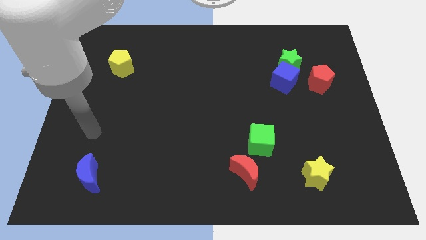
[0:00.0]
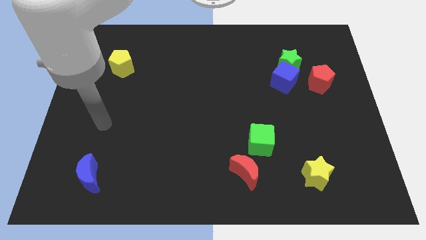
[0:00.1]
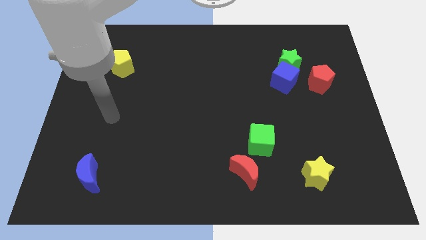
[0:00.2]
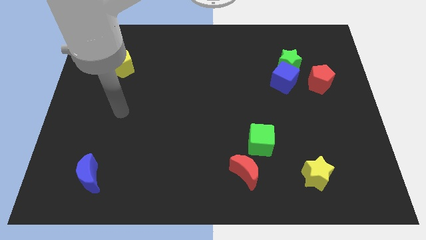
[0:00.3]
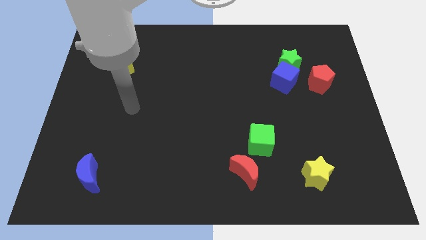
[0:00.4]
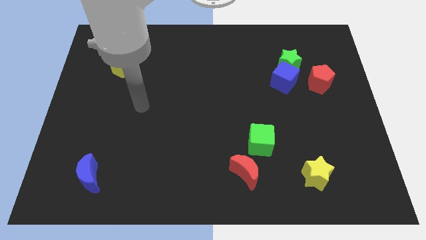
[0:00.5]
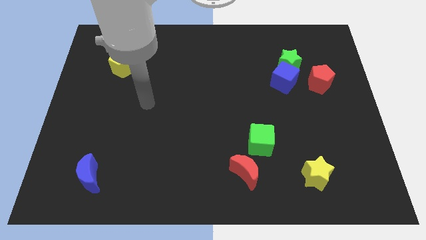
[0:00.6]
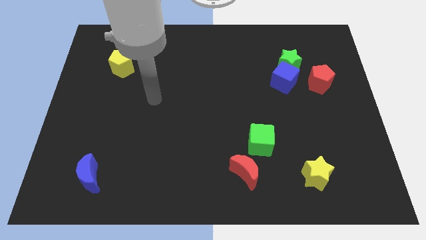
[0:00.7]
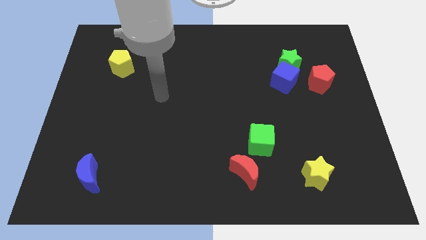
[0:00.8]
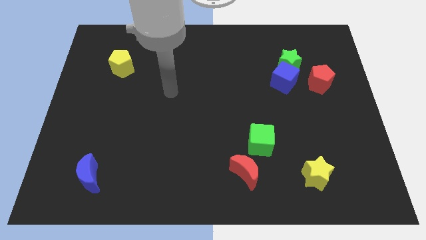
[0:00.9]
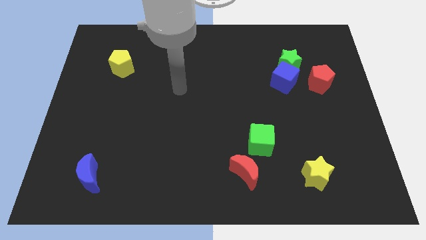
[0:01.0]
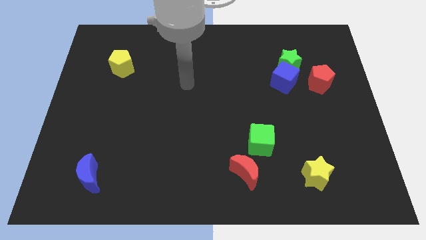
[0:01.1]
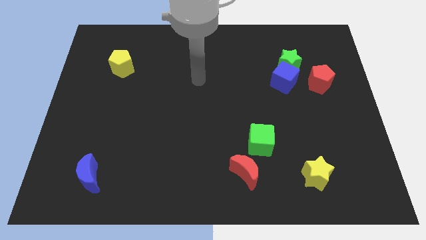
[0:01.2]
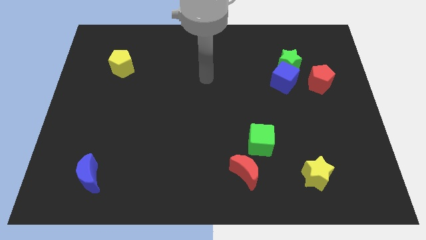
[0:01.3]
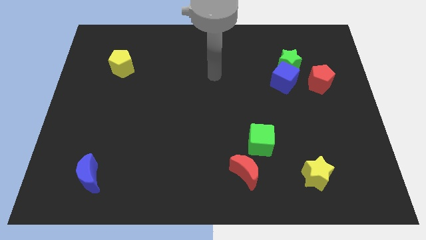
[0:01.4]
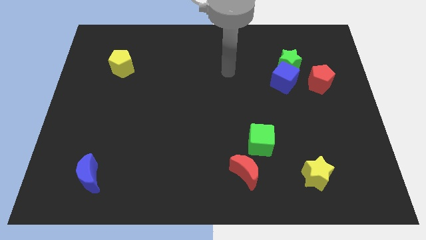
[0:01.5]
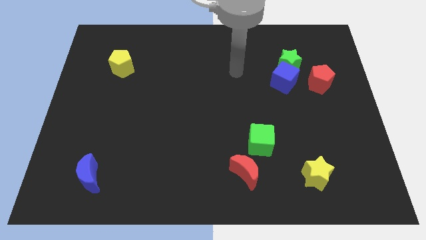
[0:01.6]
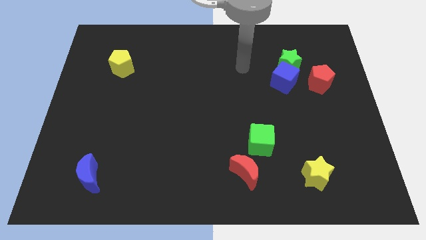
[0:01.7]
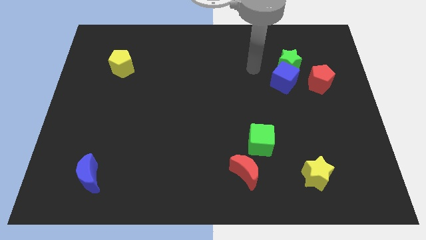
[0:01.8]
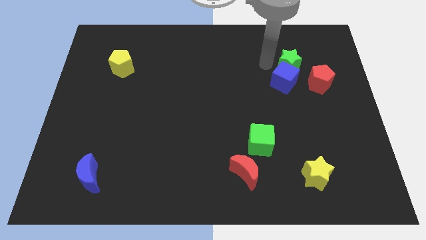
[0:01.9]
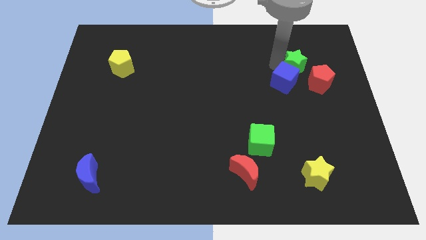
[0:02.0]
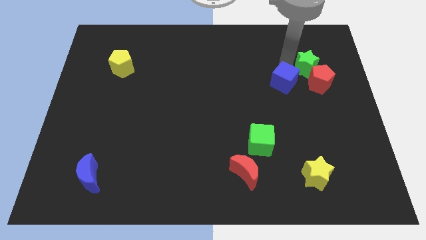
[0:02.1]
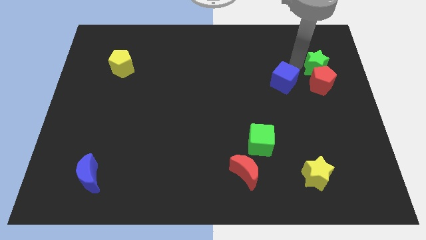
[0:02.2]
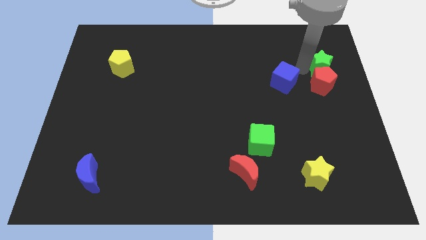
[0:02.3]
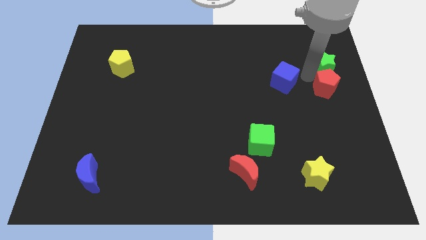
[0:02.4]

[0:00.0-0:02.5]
move the blue cube away from the green star and red pentagon

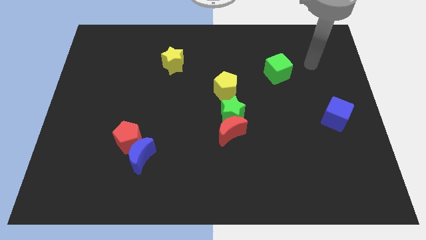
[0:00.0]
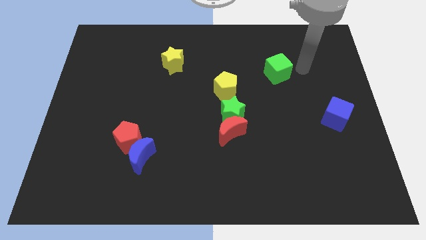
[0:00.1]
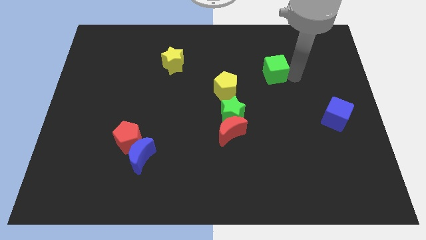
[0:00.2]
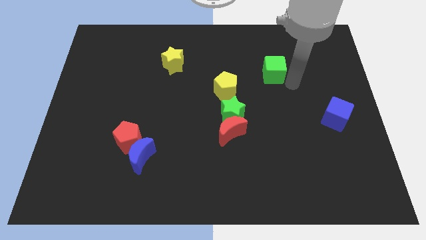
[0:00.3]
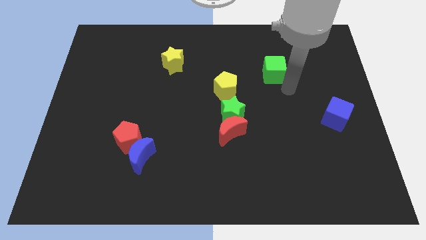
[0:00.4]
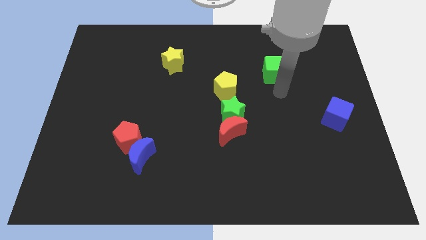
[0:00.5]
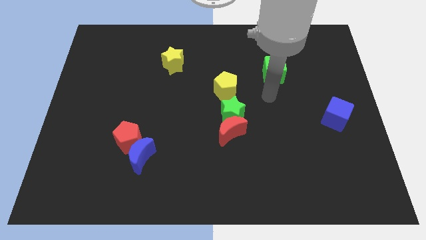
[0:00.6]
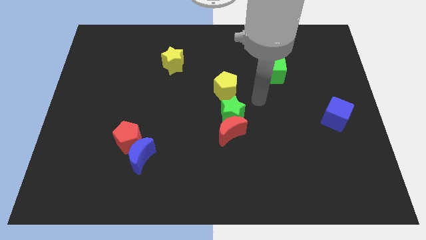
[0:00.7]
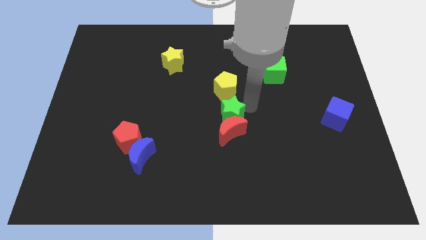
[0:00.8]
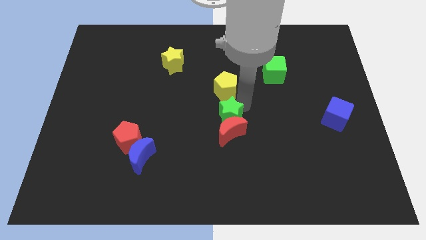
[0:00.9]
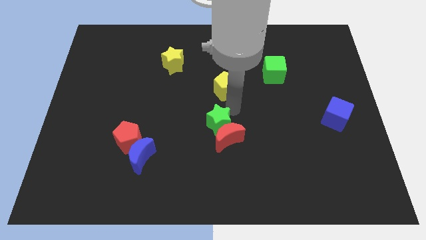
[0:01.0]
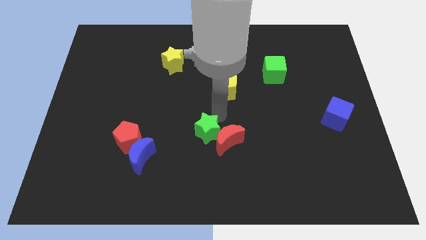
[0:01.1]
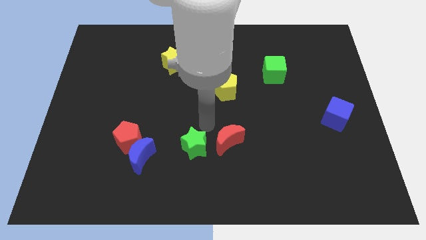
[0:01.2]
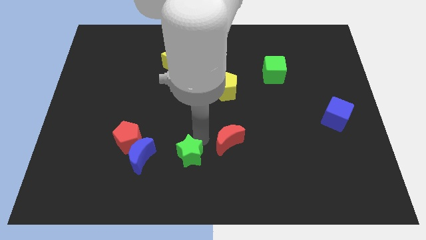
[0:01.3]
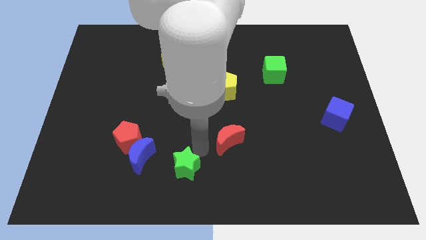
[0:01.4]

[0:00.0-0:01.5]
pull the red moon apart from the green star

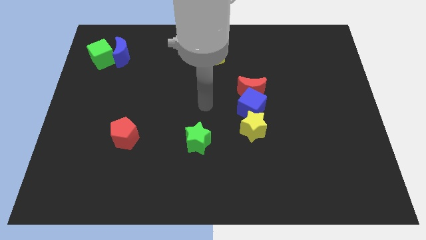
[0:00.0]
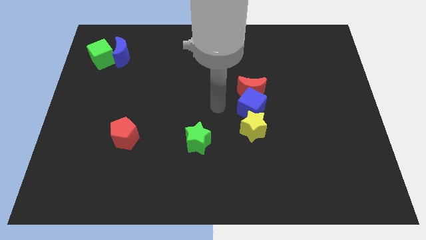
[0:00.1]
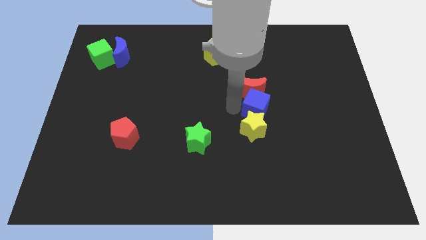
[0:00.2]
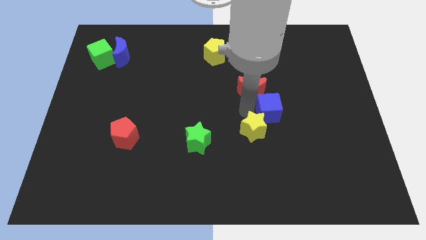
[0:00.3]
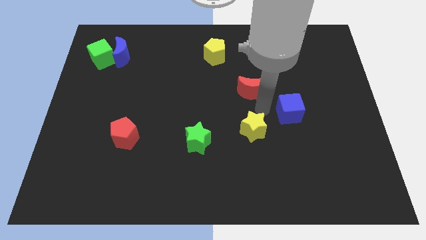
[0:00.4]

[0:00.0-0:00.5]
pull the red moon apart from the blue cube

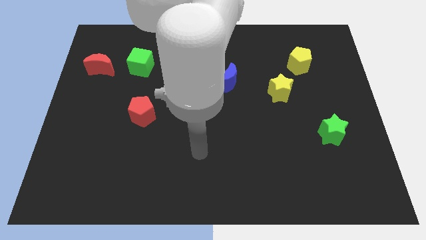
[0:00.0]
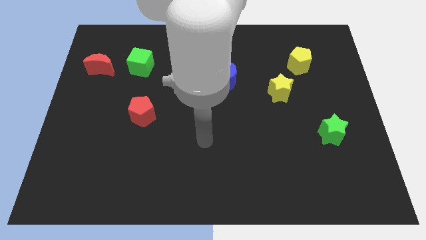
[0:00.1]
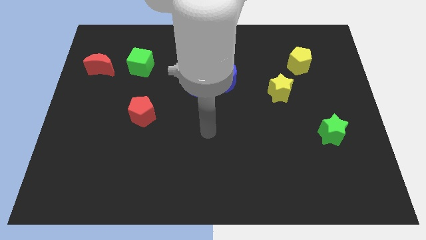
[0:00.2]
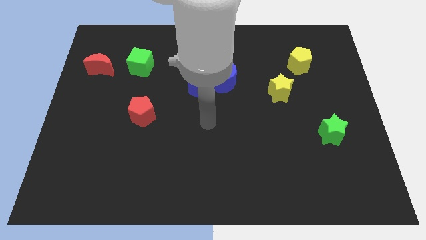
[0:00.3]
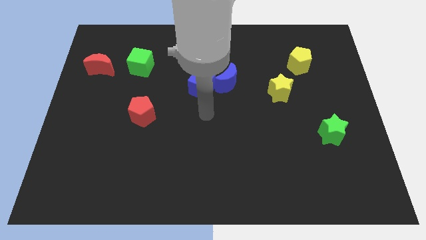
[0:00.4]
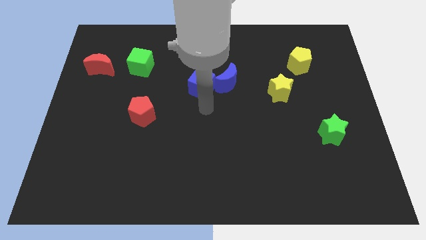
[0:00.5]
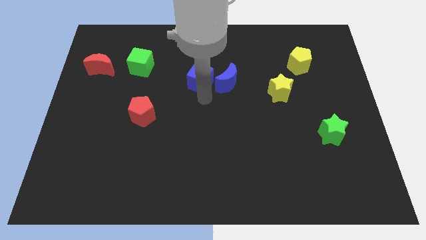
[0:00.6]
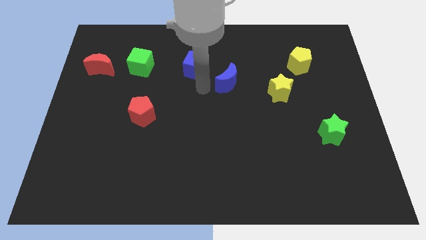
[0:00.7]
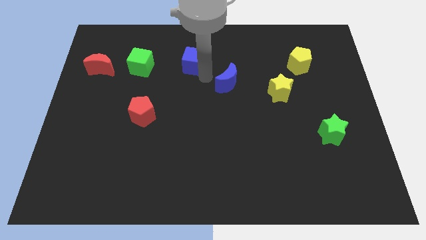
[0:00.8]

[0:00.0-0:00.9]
pull the blue moon apart from the blue cube

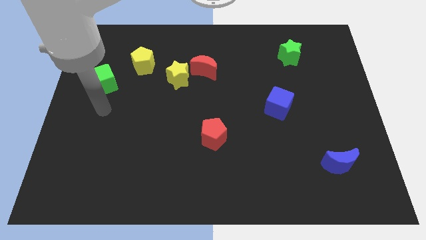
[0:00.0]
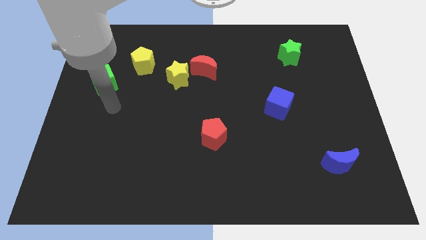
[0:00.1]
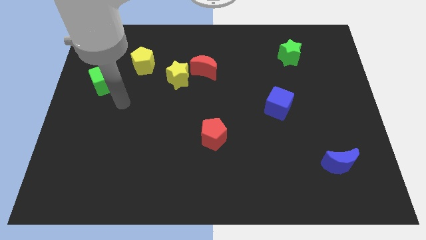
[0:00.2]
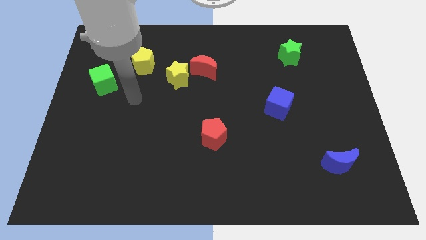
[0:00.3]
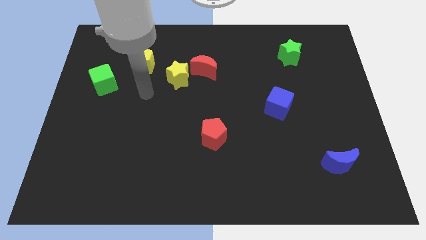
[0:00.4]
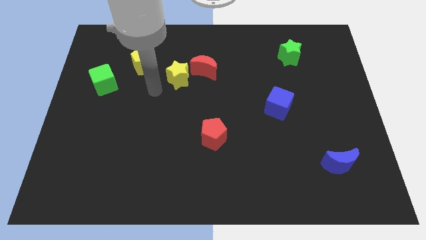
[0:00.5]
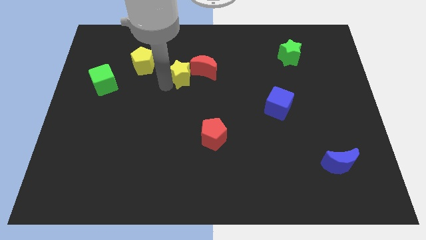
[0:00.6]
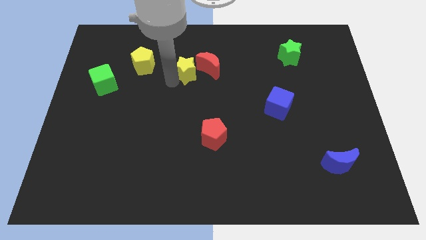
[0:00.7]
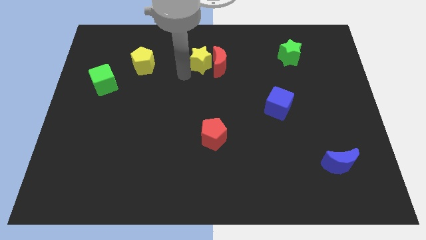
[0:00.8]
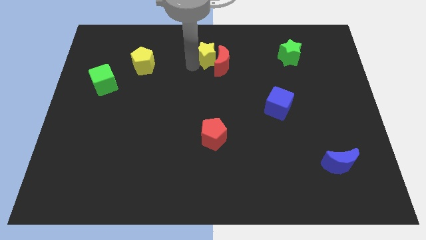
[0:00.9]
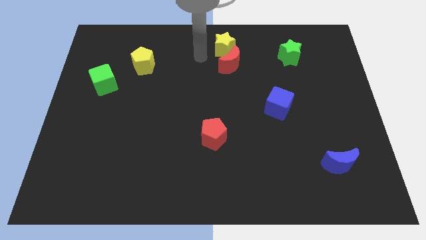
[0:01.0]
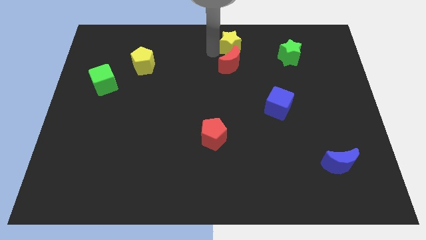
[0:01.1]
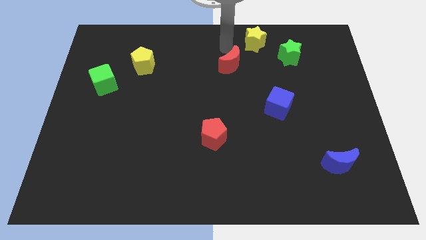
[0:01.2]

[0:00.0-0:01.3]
pull the red moon apart from the yellow star

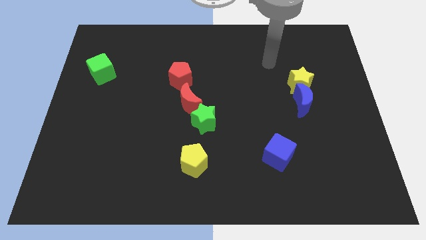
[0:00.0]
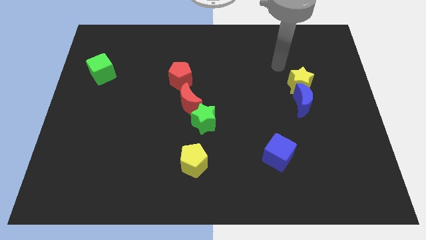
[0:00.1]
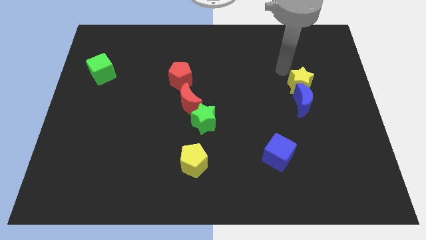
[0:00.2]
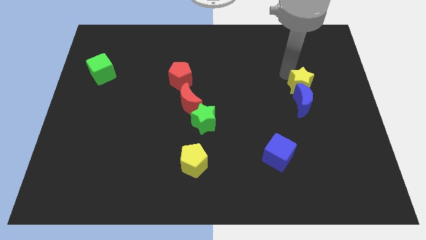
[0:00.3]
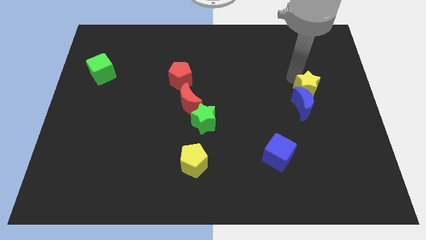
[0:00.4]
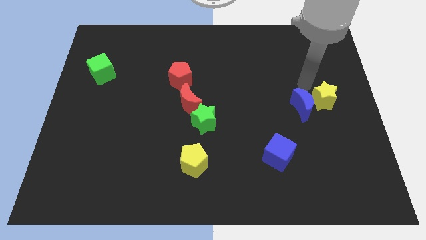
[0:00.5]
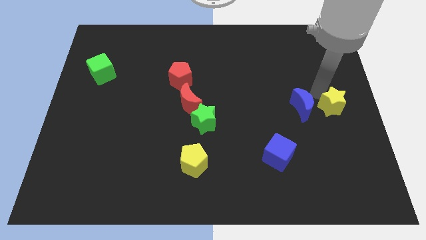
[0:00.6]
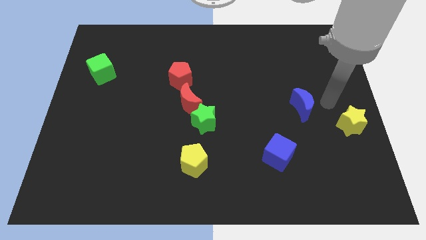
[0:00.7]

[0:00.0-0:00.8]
move the blue moon away from the yellow star

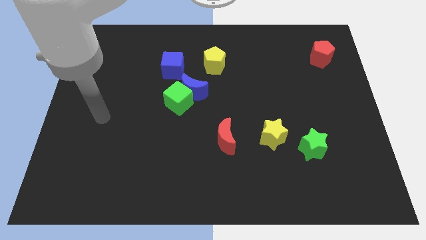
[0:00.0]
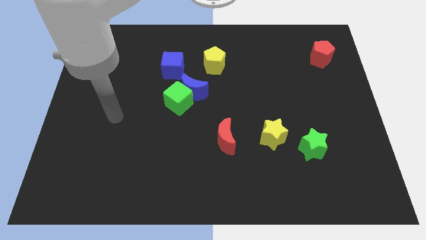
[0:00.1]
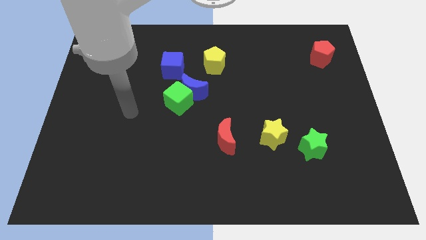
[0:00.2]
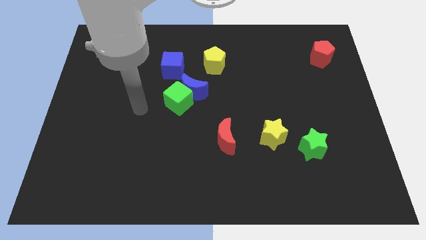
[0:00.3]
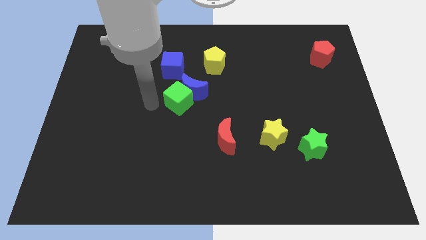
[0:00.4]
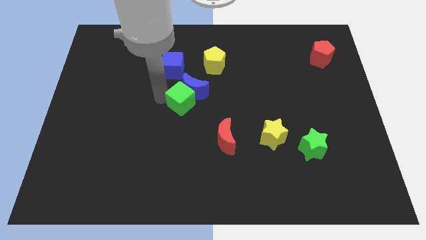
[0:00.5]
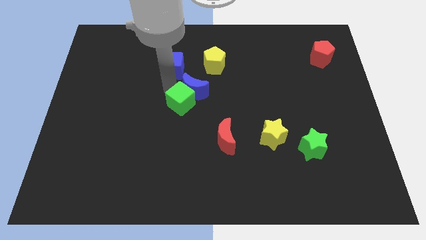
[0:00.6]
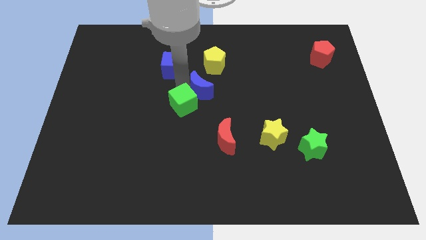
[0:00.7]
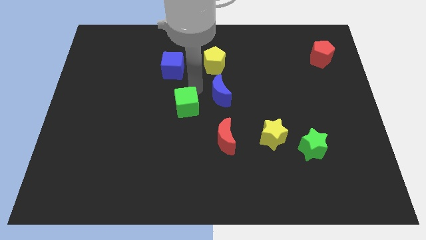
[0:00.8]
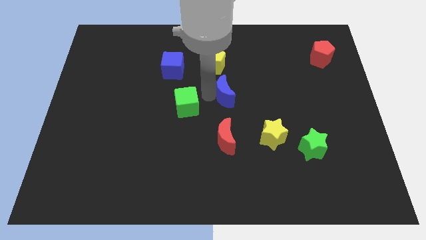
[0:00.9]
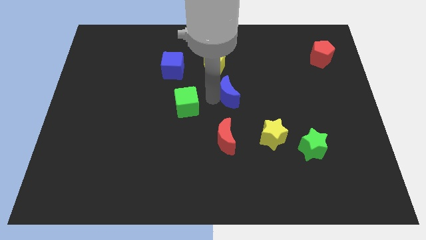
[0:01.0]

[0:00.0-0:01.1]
move the green cube away from the blue moon

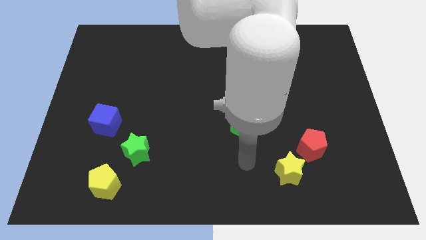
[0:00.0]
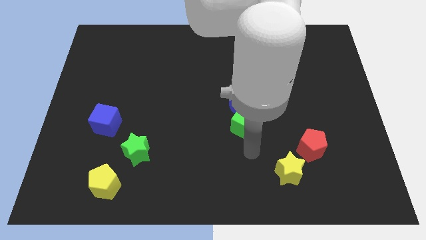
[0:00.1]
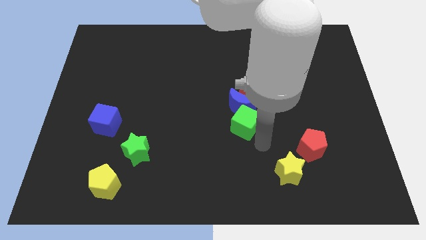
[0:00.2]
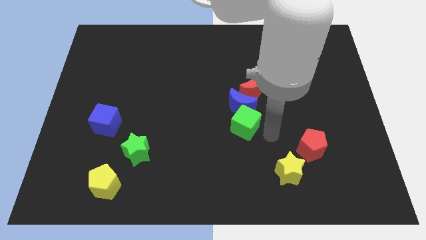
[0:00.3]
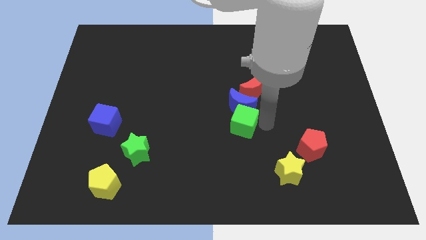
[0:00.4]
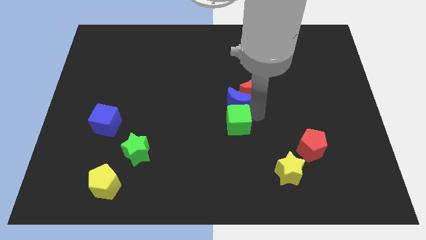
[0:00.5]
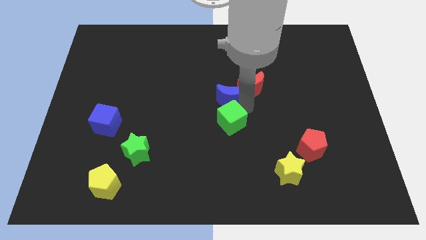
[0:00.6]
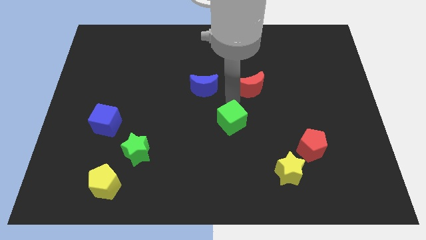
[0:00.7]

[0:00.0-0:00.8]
pull the green cube apart from the blue moon
